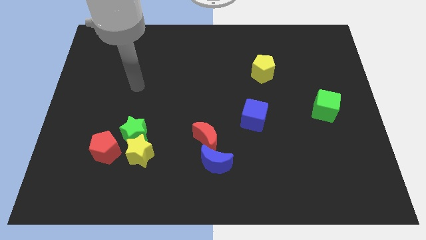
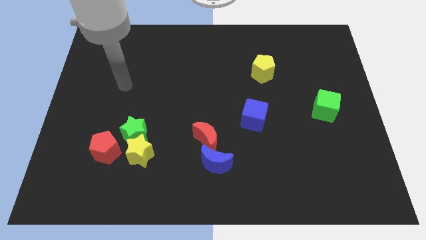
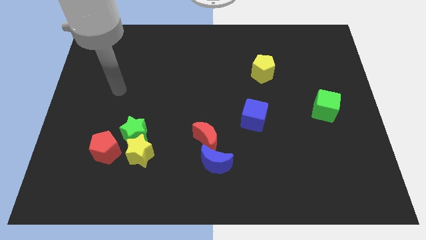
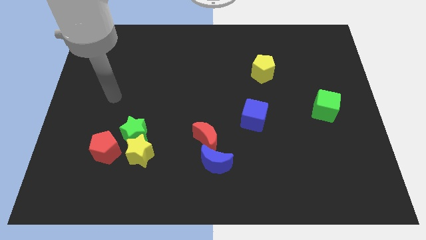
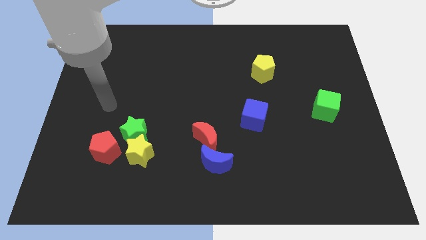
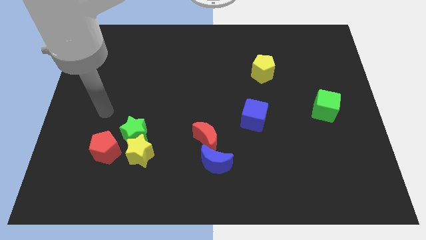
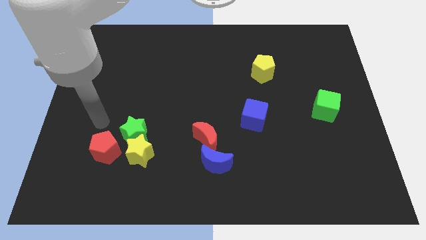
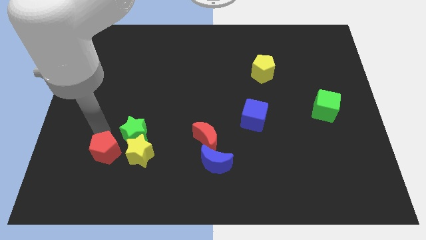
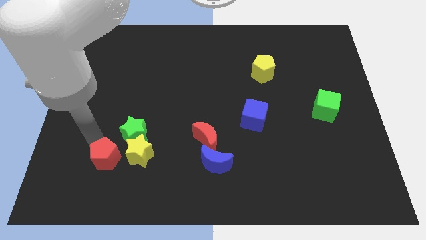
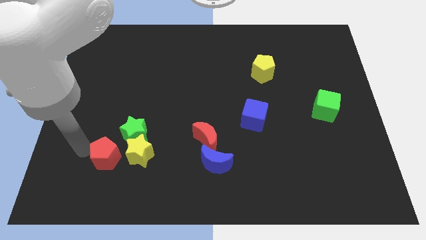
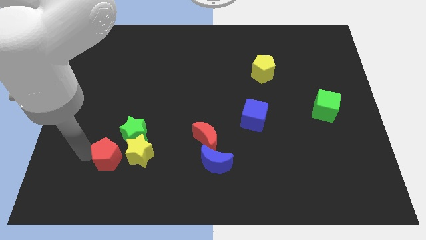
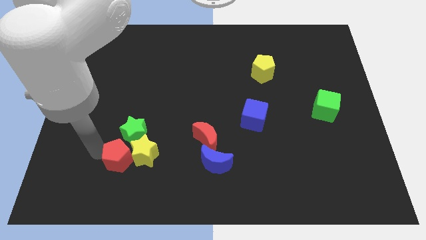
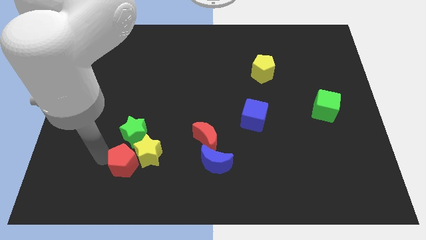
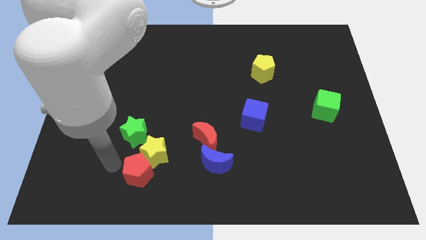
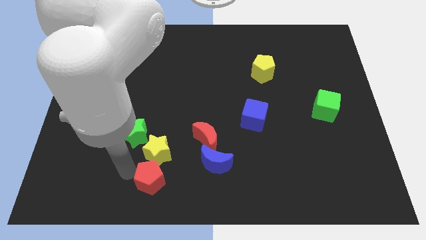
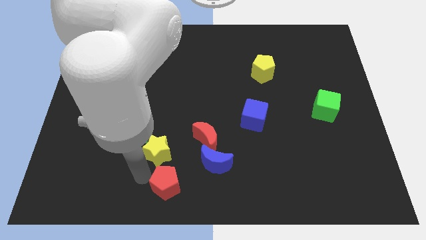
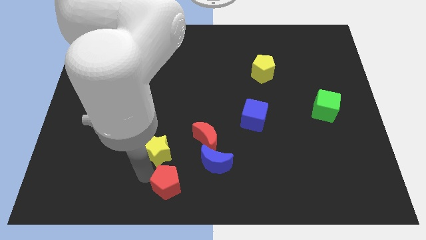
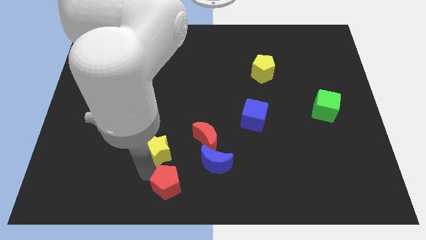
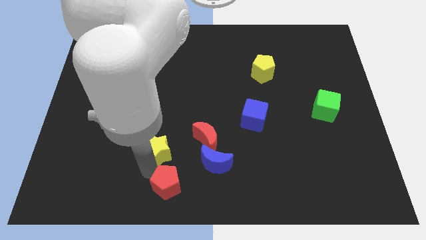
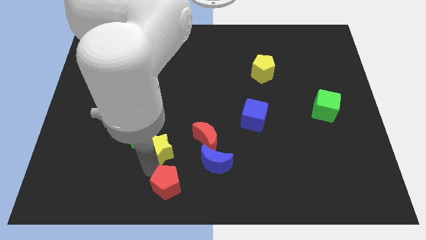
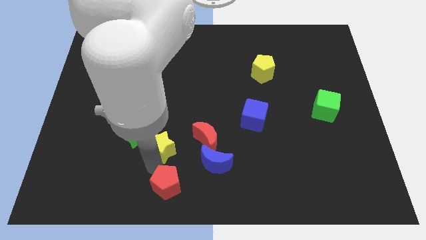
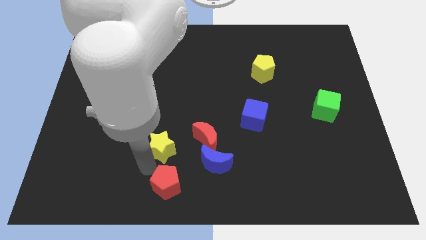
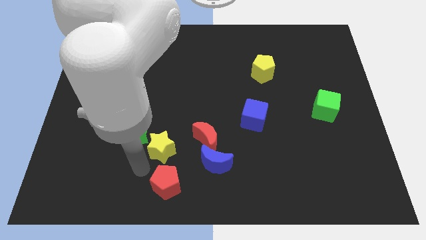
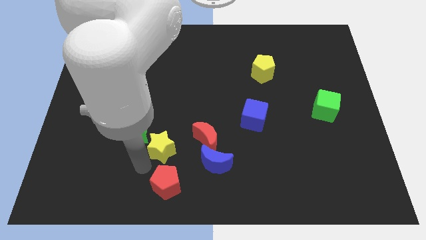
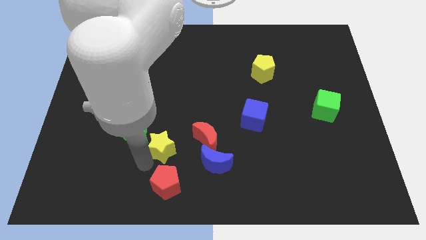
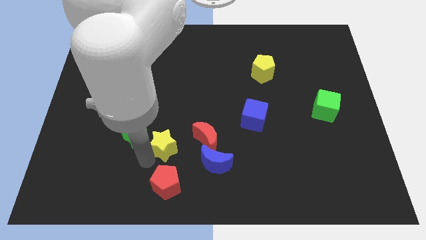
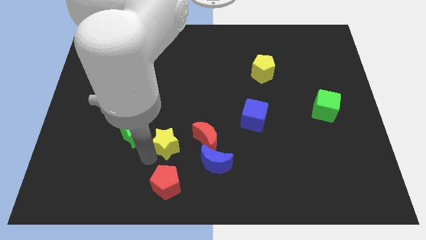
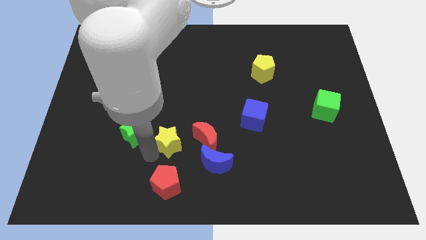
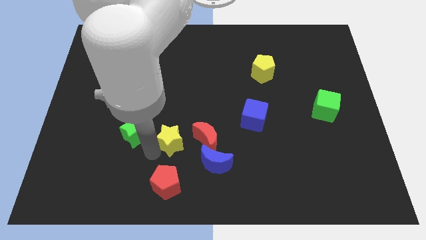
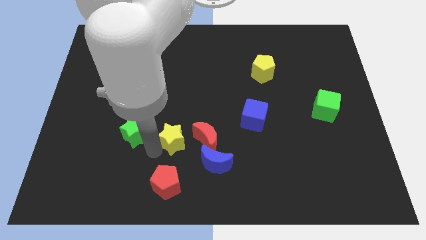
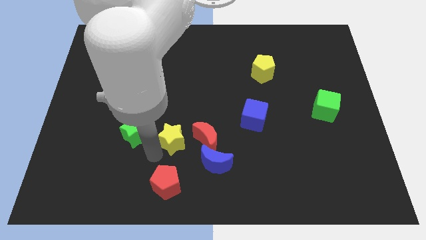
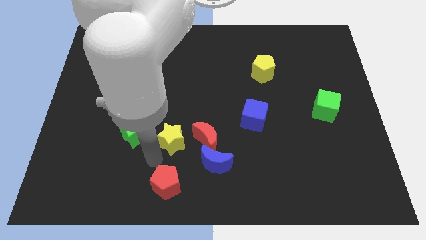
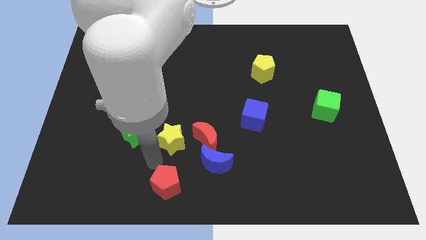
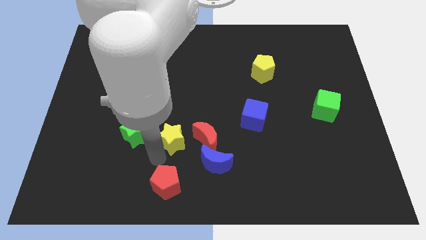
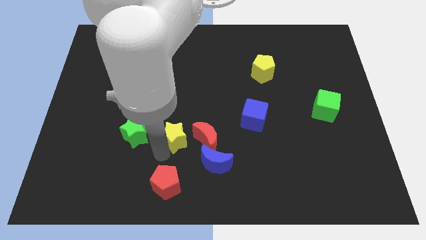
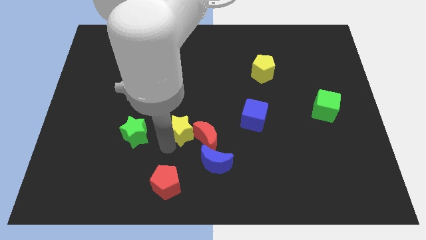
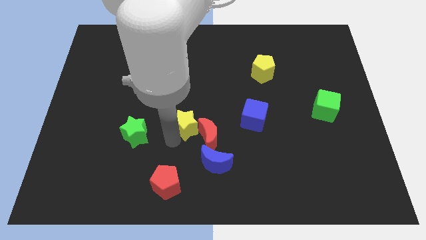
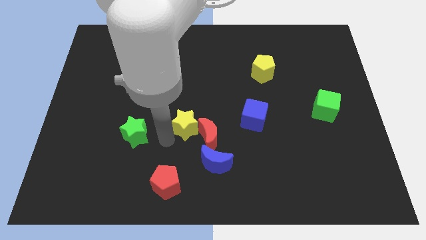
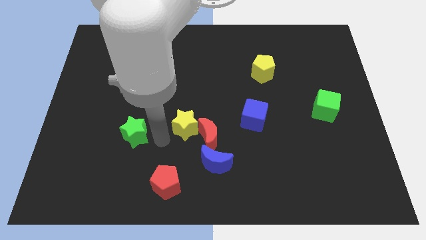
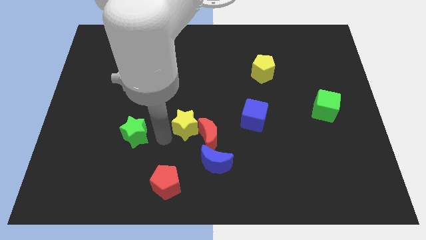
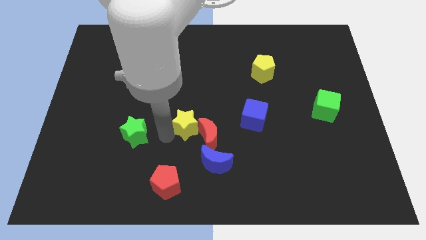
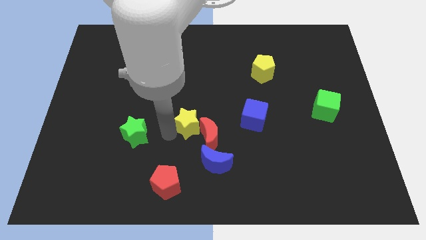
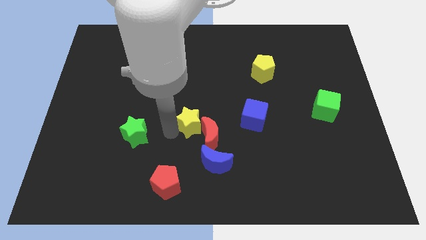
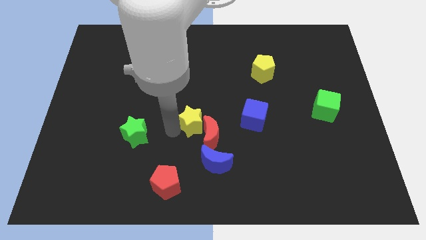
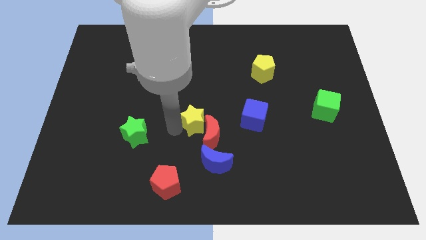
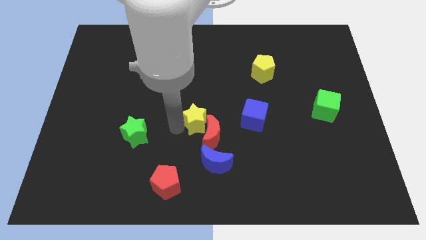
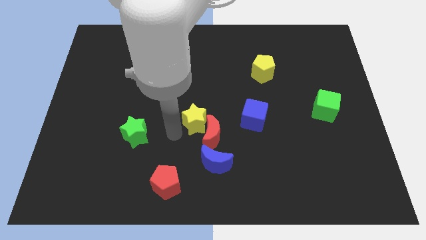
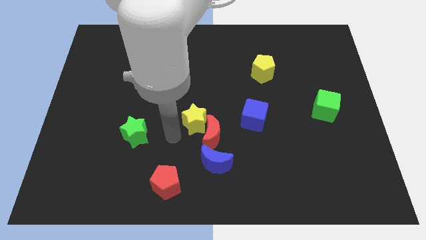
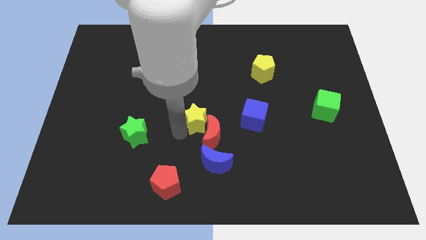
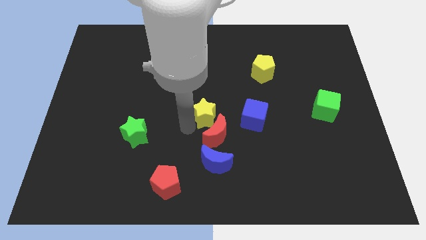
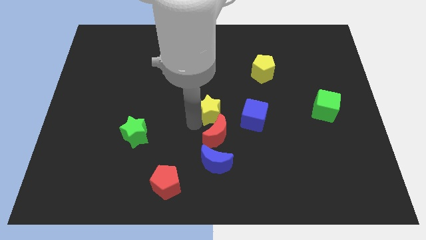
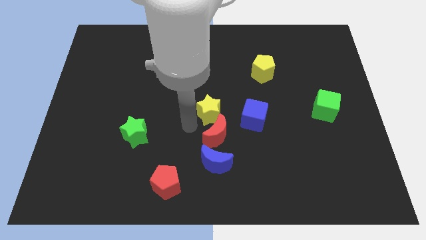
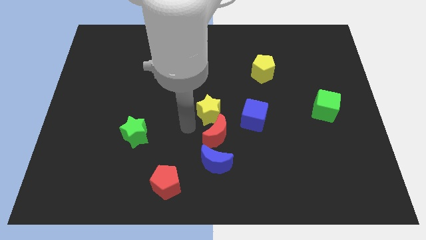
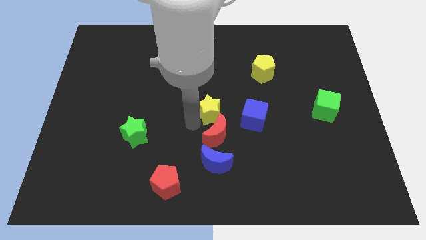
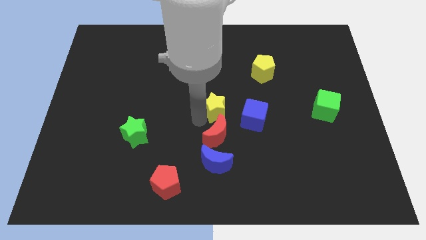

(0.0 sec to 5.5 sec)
push the yellow star to the top left of the blue cube

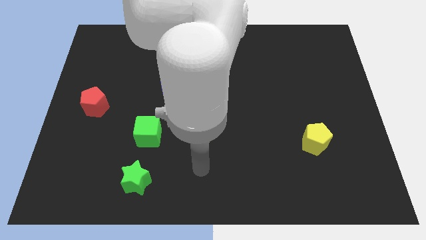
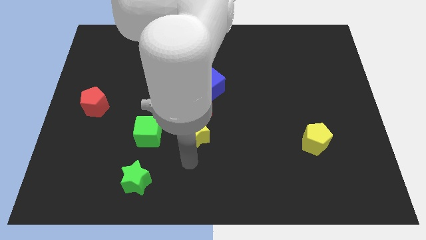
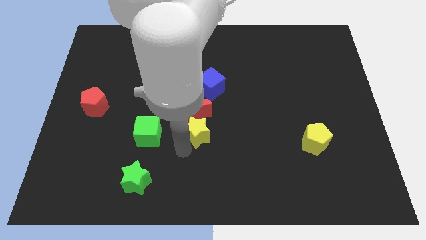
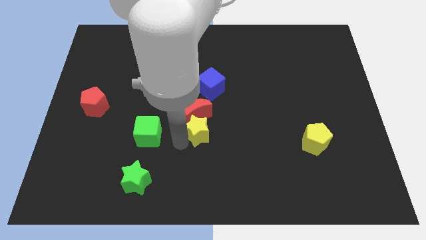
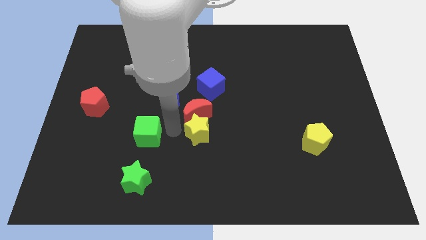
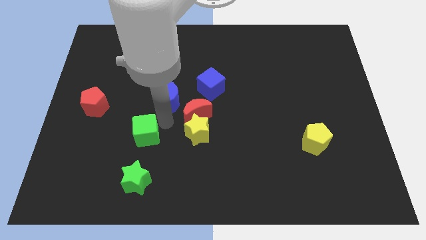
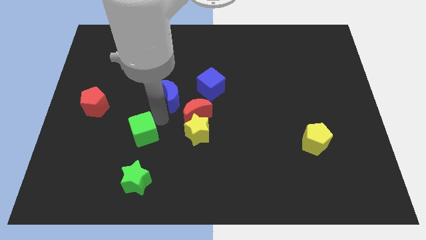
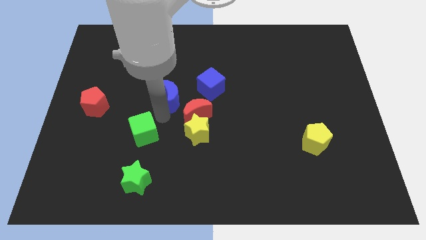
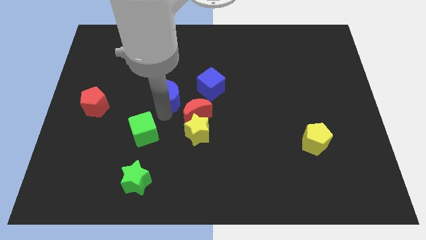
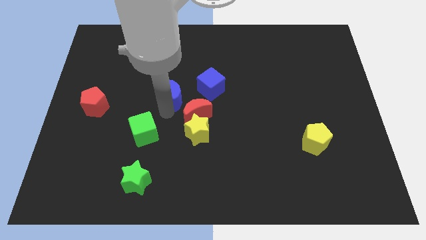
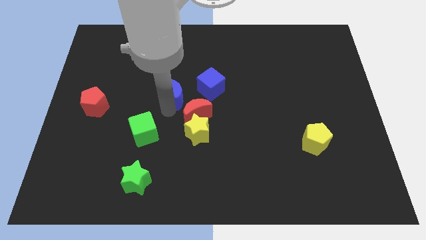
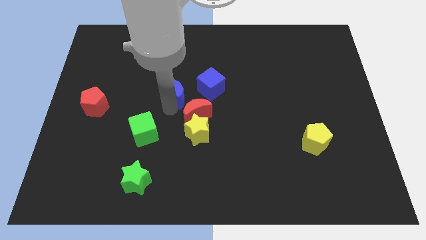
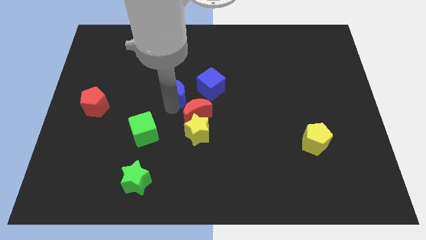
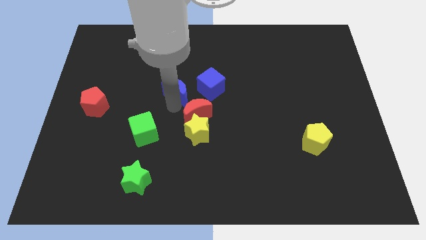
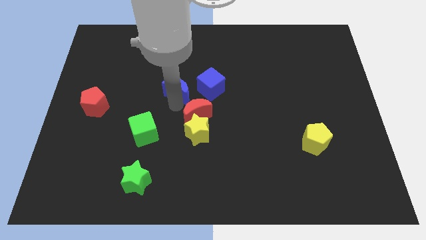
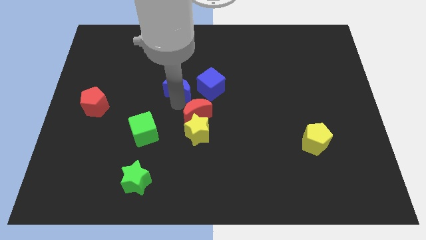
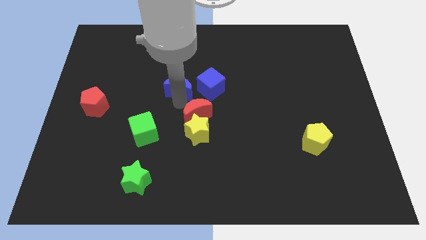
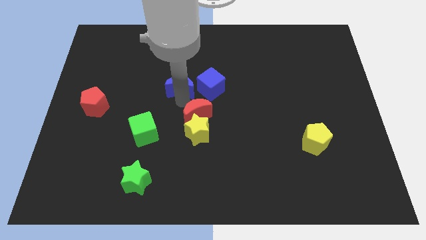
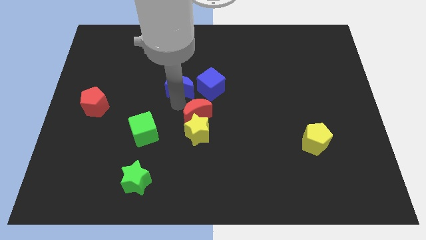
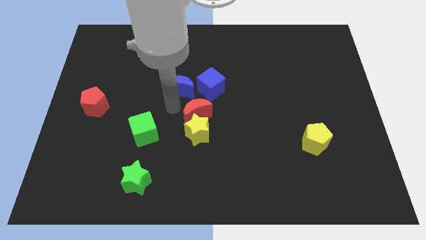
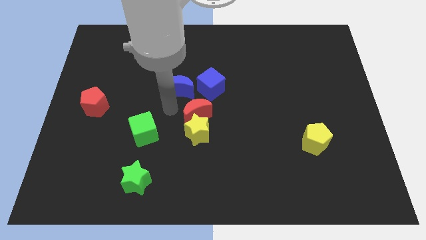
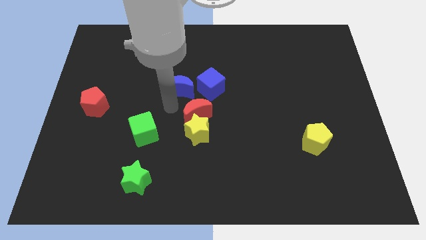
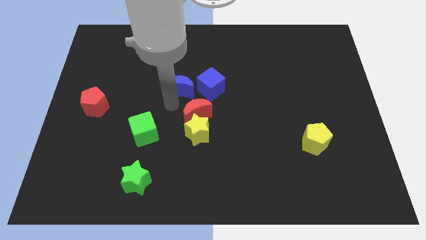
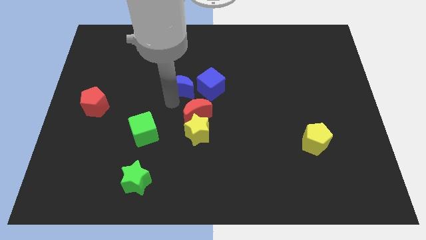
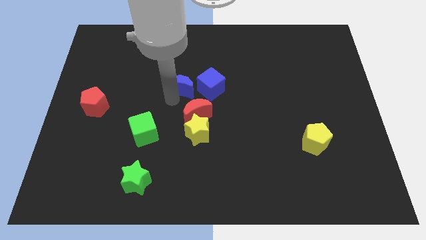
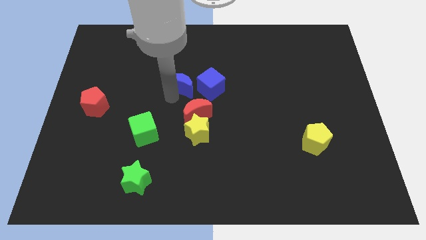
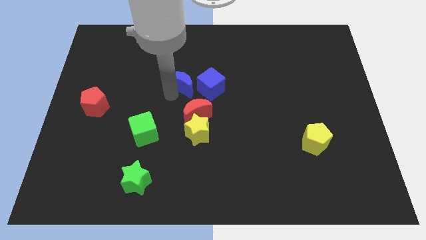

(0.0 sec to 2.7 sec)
push the blue moon diagonally up and to the left of the blue cube
